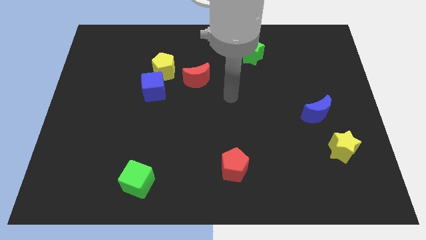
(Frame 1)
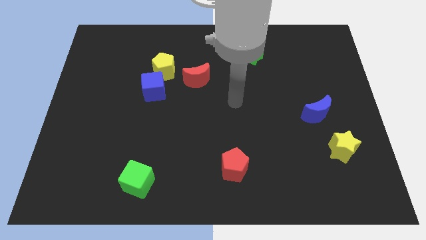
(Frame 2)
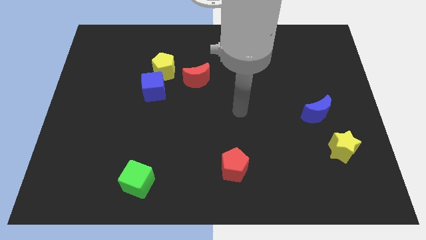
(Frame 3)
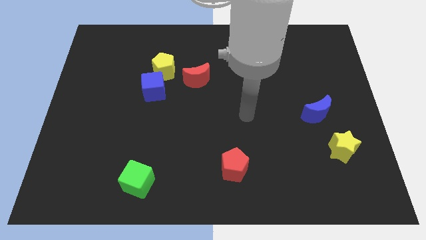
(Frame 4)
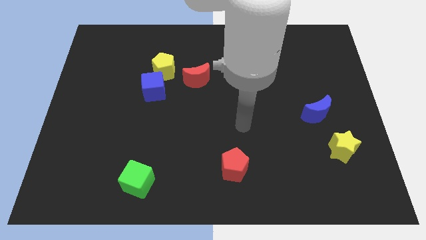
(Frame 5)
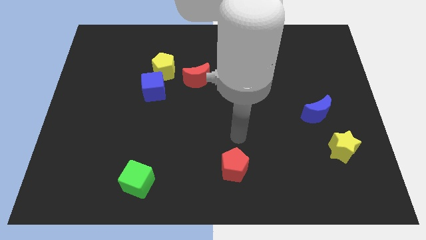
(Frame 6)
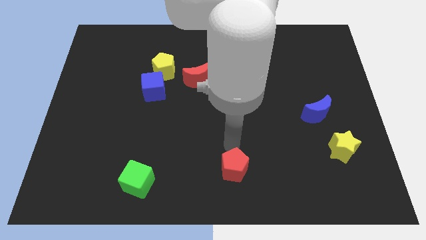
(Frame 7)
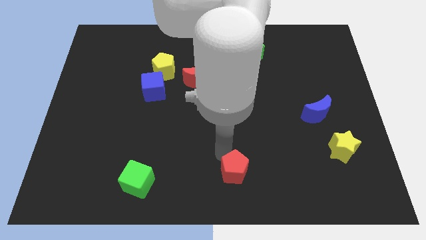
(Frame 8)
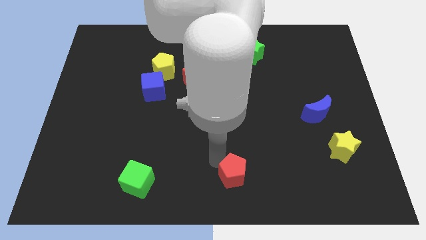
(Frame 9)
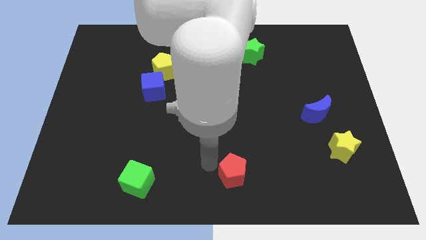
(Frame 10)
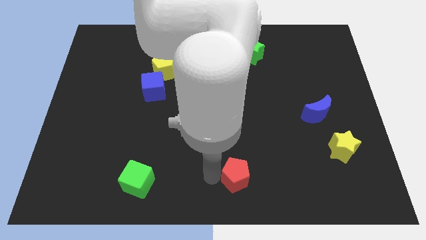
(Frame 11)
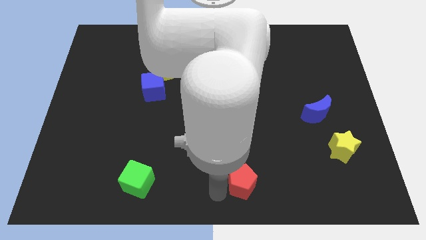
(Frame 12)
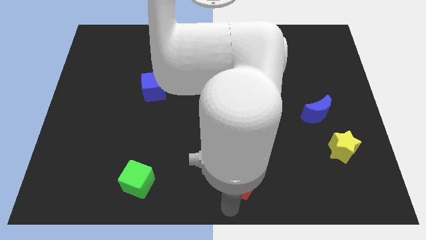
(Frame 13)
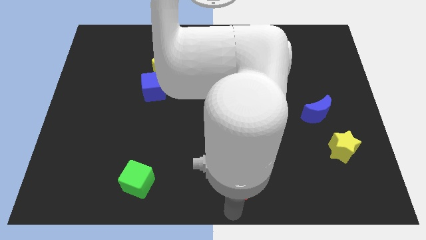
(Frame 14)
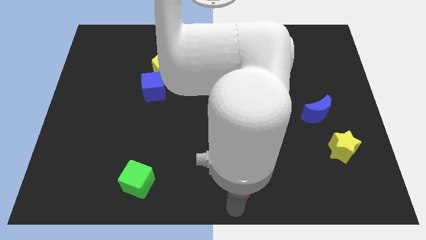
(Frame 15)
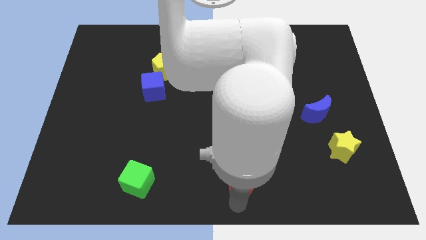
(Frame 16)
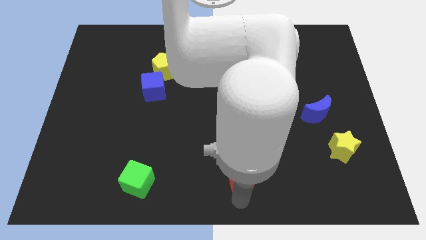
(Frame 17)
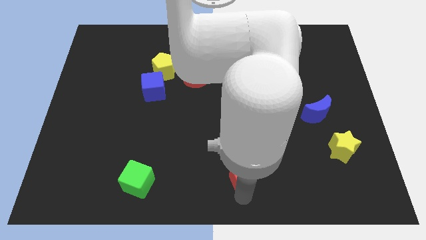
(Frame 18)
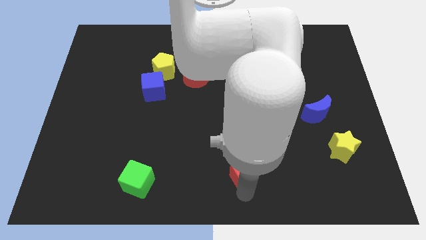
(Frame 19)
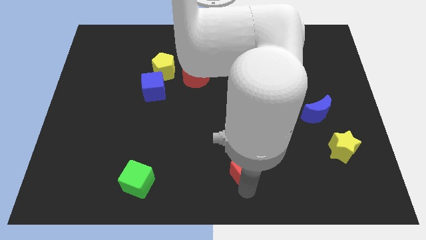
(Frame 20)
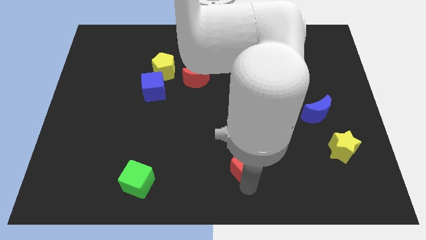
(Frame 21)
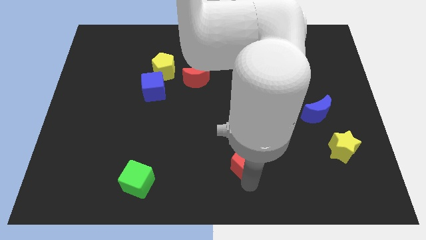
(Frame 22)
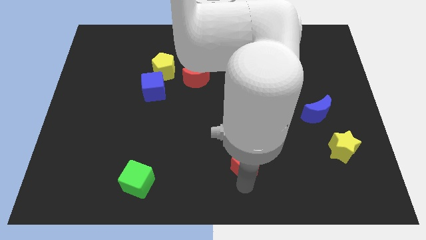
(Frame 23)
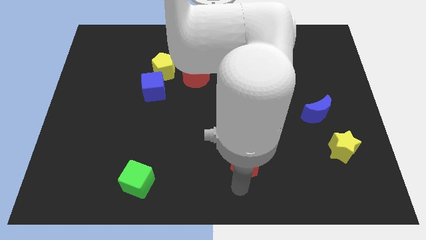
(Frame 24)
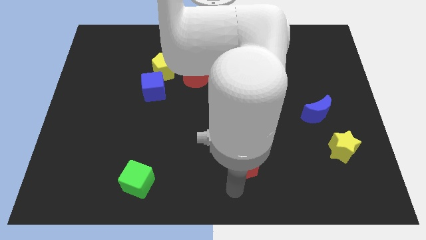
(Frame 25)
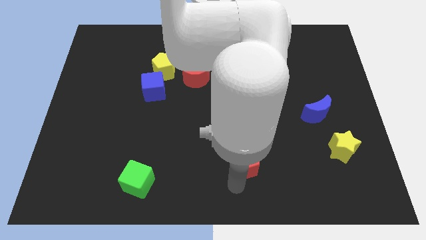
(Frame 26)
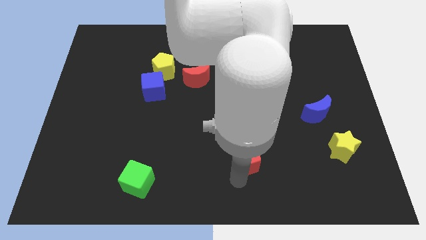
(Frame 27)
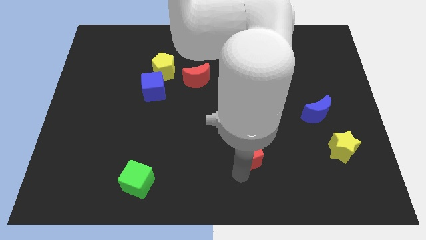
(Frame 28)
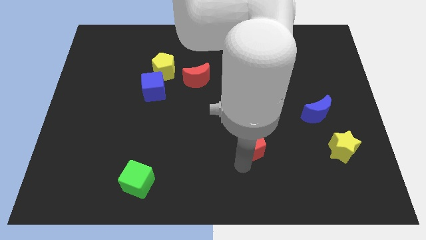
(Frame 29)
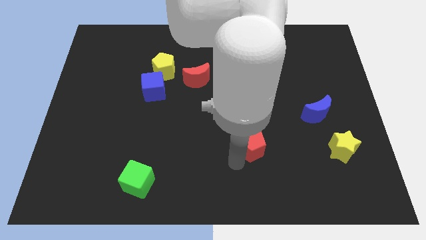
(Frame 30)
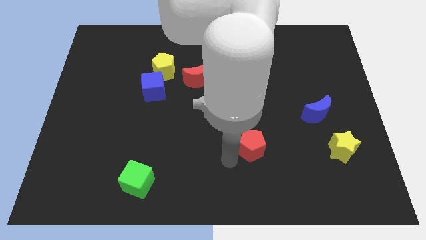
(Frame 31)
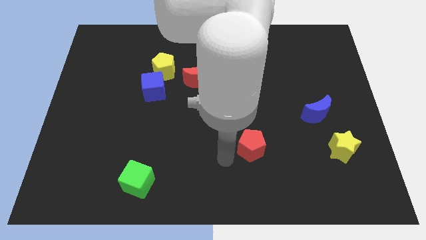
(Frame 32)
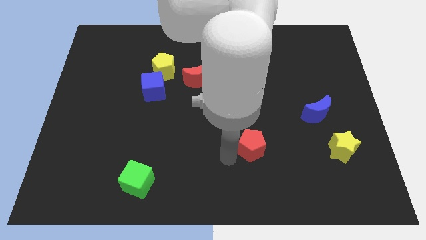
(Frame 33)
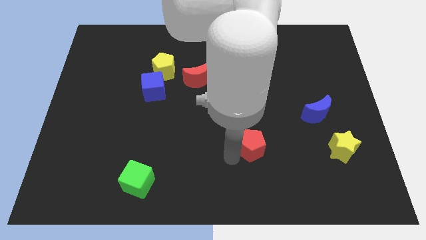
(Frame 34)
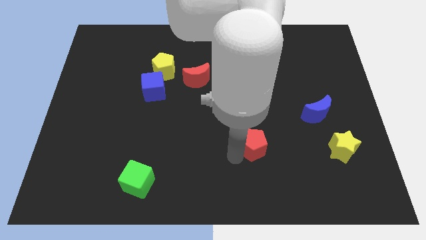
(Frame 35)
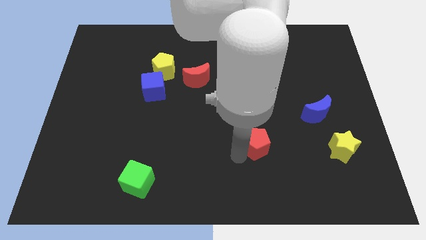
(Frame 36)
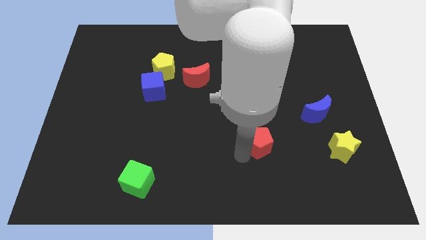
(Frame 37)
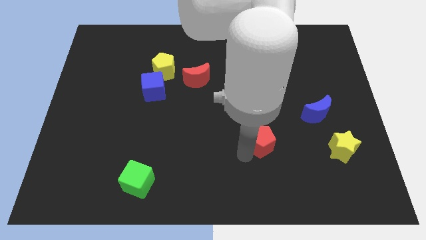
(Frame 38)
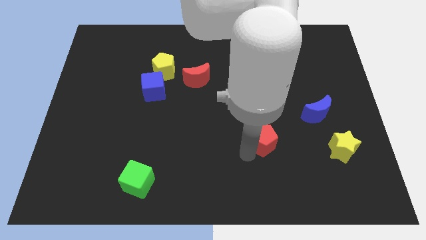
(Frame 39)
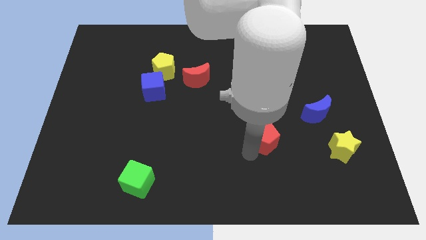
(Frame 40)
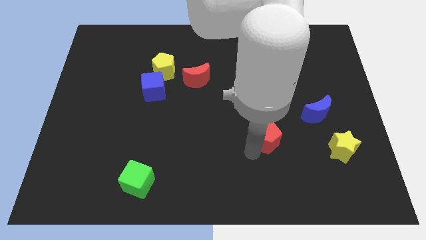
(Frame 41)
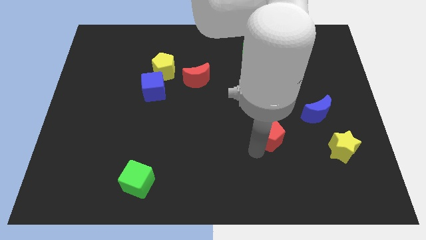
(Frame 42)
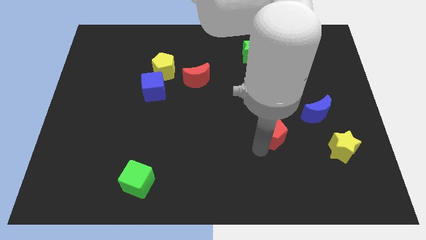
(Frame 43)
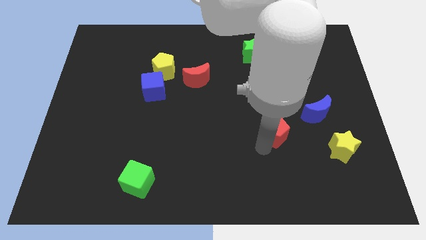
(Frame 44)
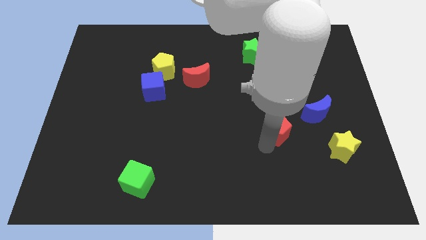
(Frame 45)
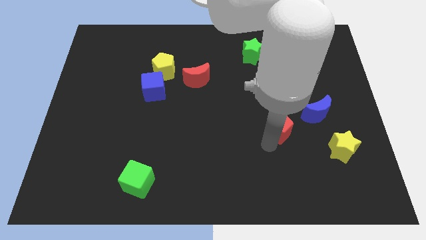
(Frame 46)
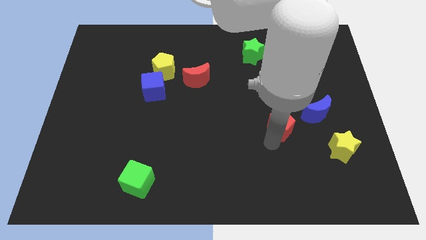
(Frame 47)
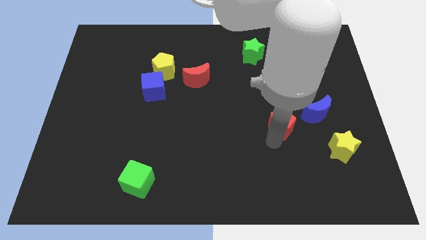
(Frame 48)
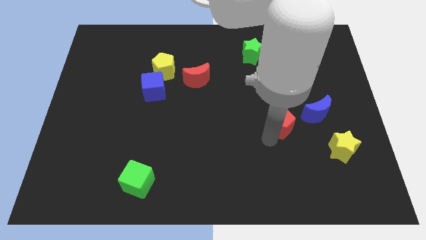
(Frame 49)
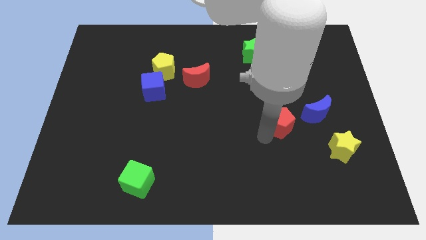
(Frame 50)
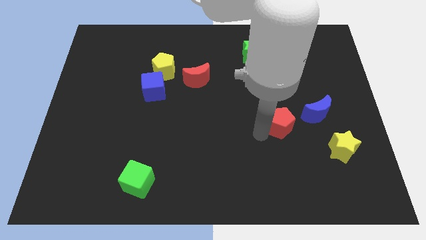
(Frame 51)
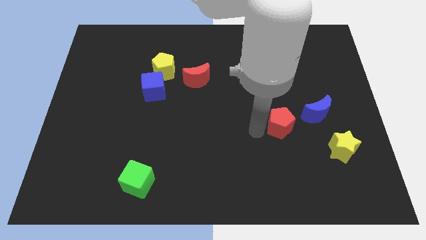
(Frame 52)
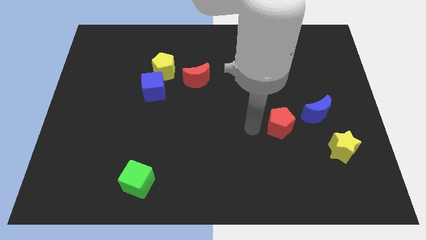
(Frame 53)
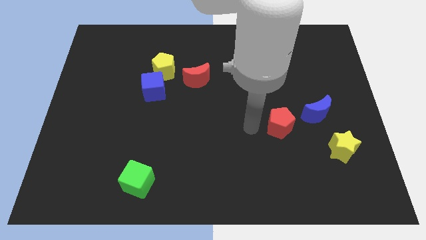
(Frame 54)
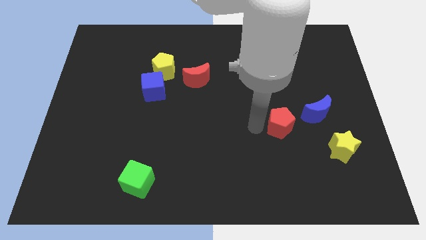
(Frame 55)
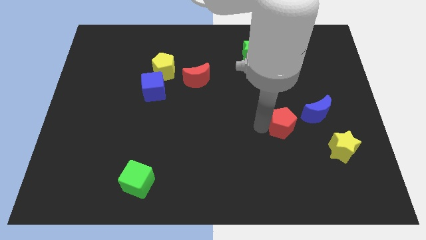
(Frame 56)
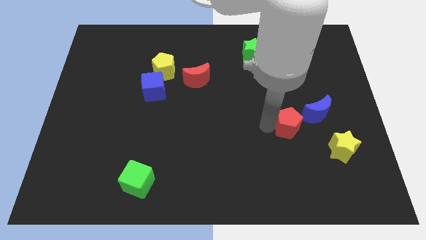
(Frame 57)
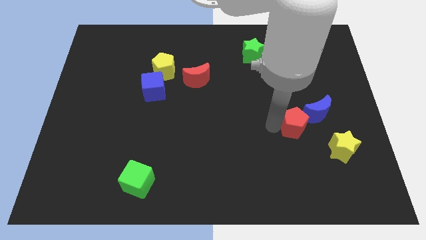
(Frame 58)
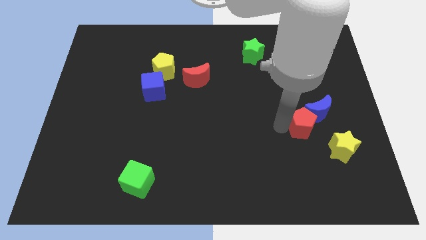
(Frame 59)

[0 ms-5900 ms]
put the red pentagon towards the blue moon

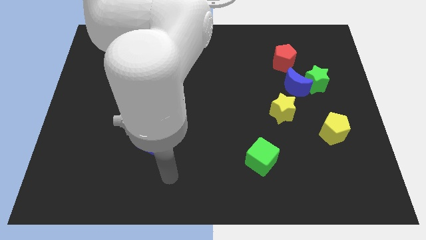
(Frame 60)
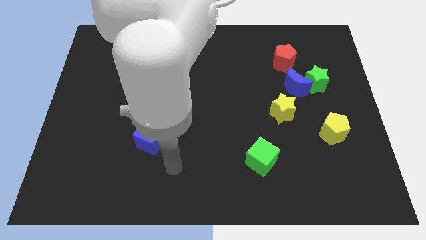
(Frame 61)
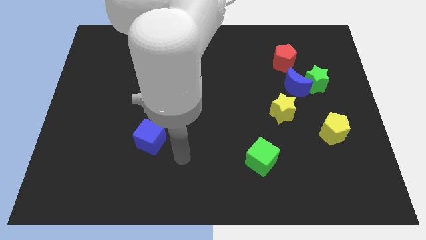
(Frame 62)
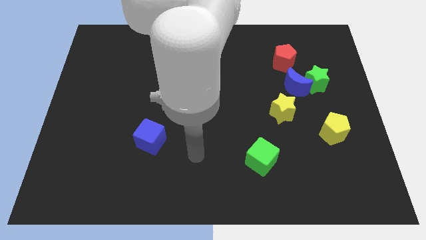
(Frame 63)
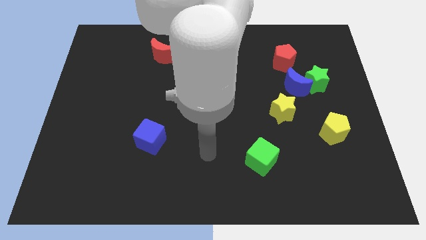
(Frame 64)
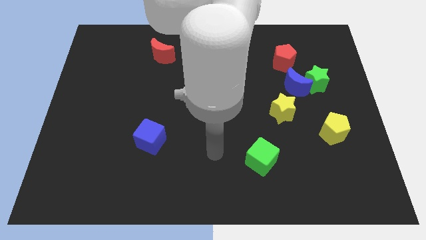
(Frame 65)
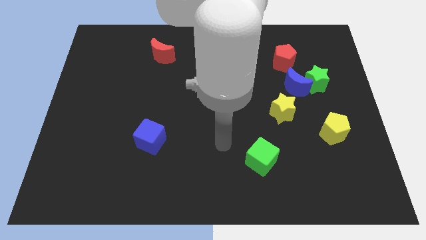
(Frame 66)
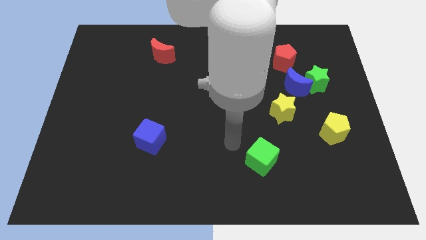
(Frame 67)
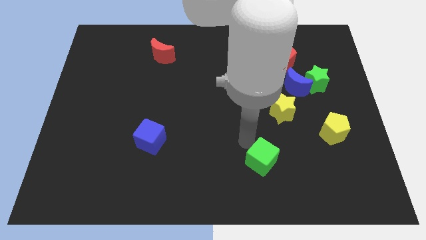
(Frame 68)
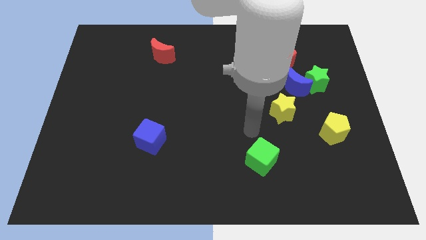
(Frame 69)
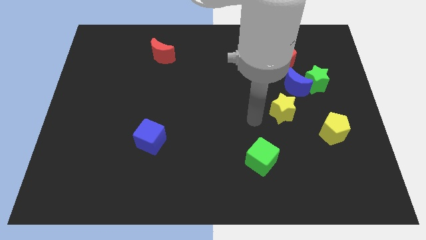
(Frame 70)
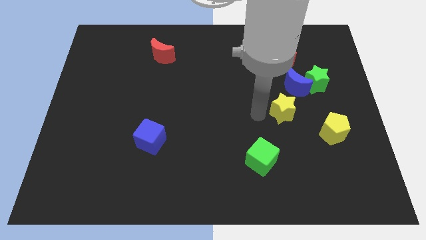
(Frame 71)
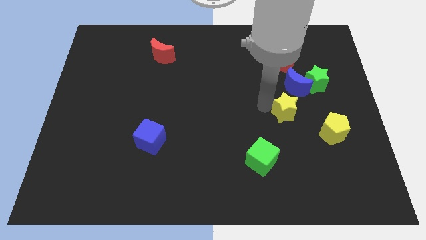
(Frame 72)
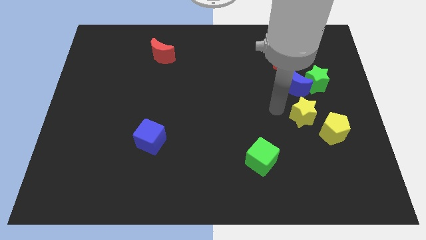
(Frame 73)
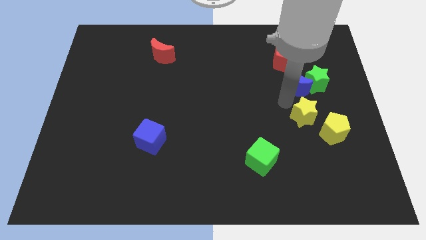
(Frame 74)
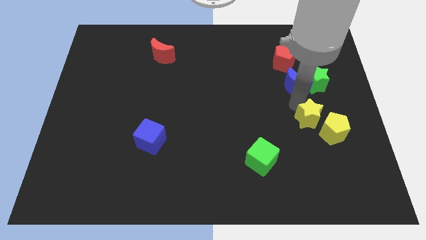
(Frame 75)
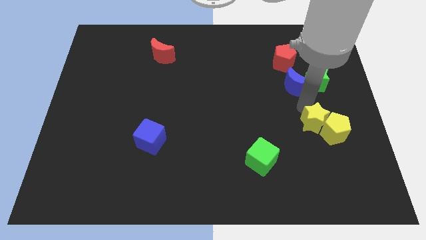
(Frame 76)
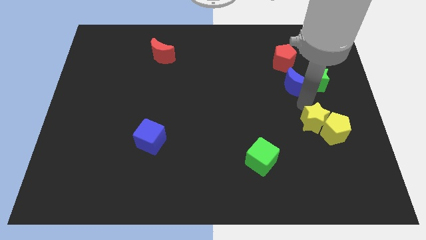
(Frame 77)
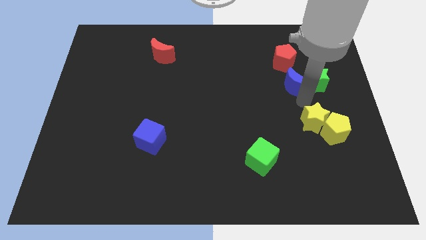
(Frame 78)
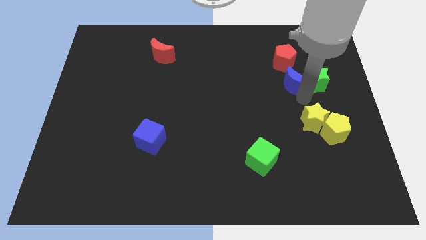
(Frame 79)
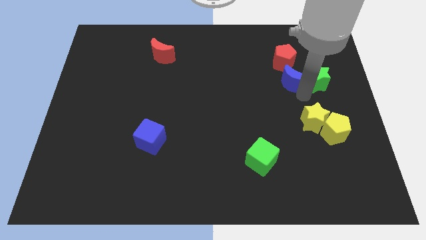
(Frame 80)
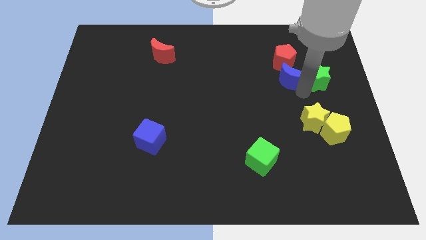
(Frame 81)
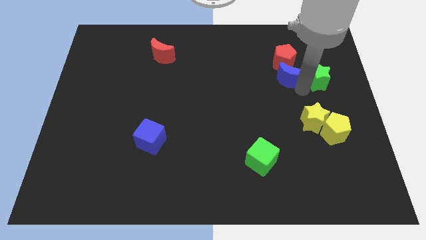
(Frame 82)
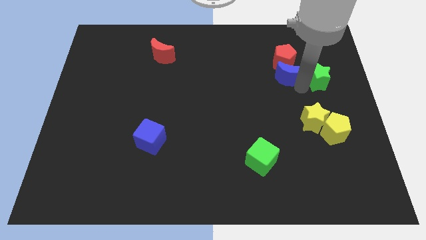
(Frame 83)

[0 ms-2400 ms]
push the blue moon next to the red pentagon
